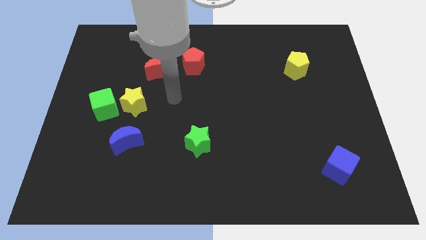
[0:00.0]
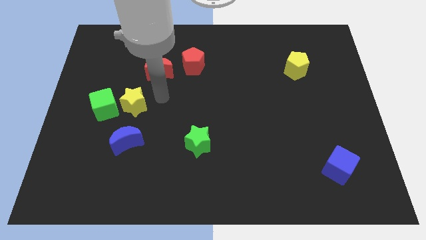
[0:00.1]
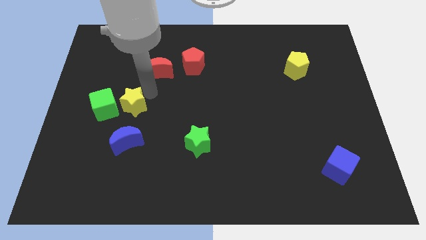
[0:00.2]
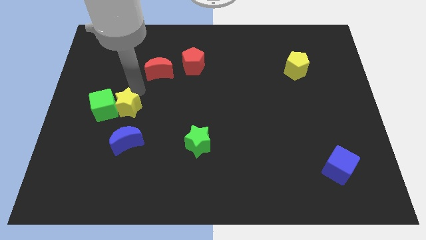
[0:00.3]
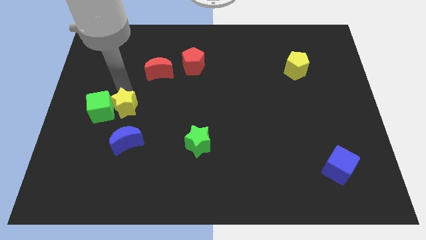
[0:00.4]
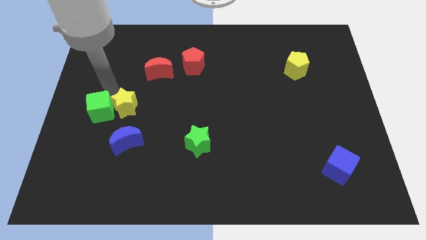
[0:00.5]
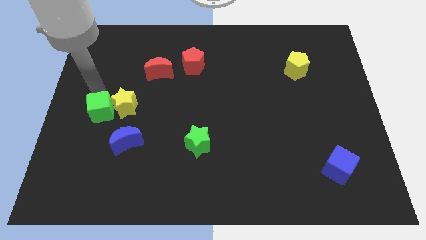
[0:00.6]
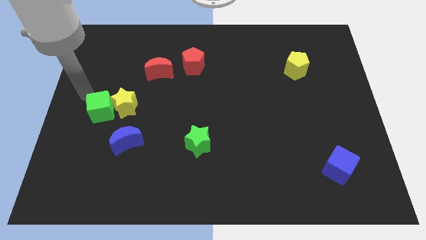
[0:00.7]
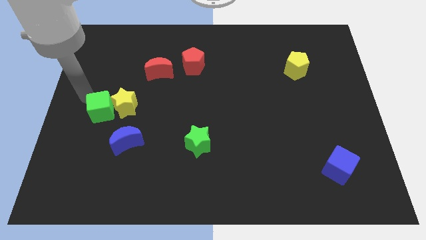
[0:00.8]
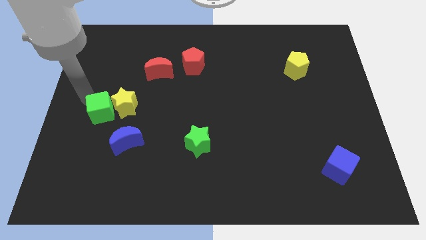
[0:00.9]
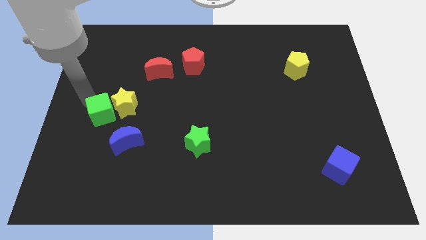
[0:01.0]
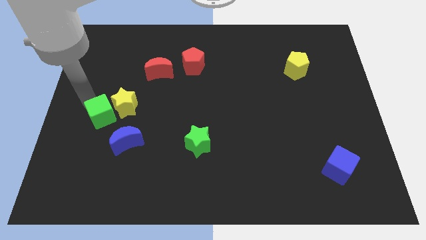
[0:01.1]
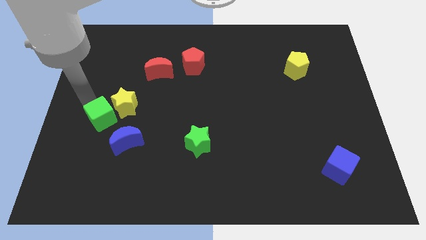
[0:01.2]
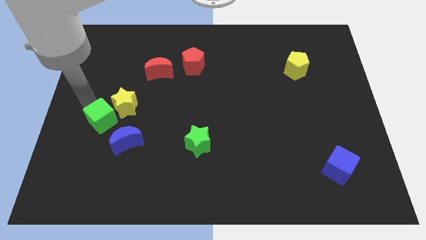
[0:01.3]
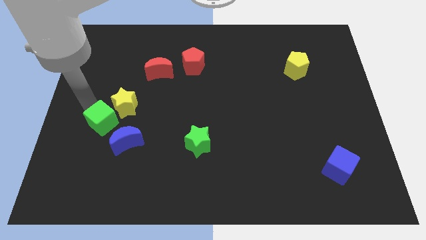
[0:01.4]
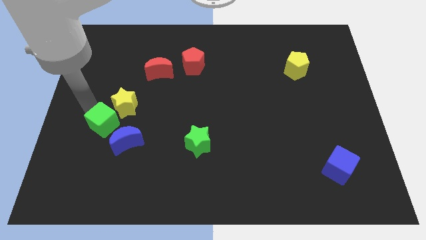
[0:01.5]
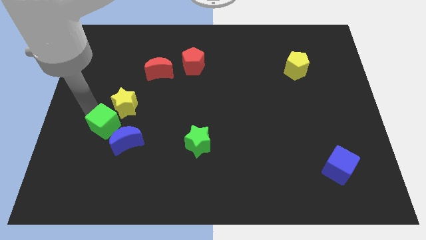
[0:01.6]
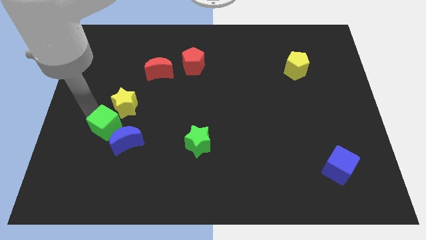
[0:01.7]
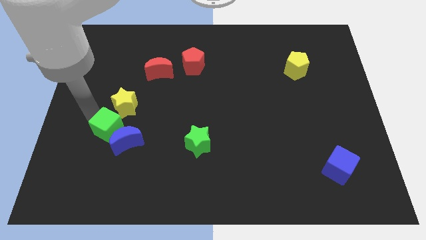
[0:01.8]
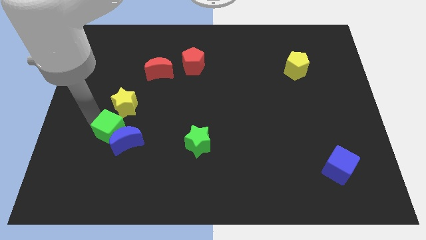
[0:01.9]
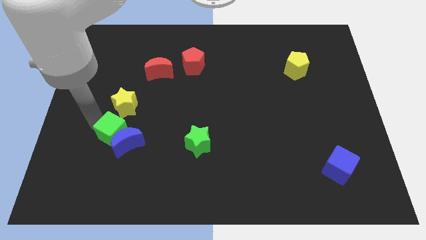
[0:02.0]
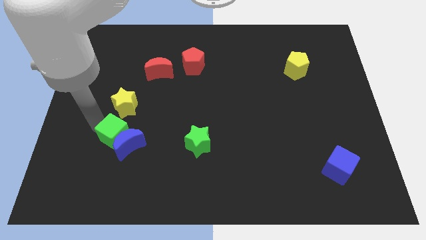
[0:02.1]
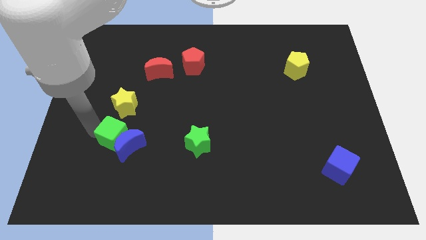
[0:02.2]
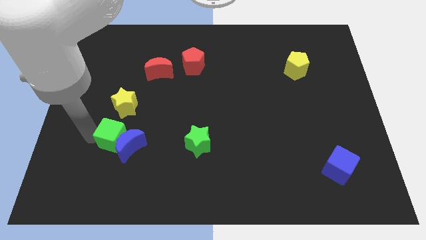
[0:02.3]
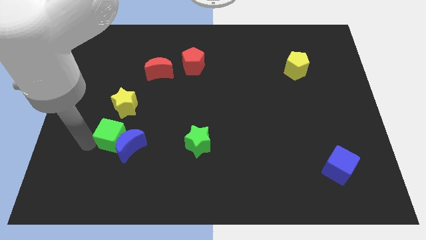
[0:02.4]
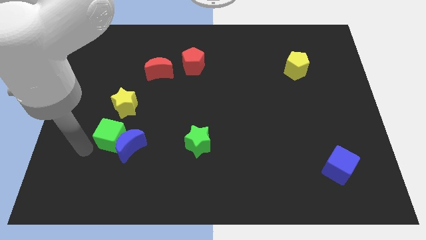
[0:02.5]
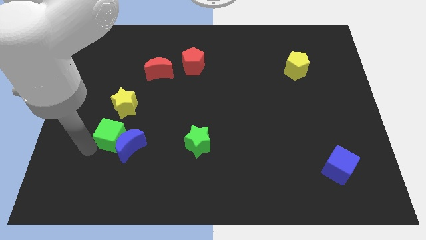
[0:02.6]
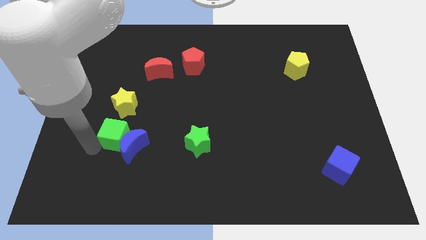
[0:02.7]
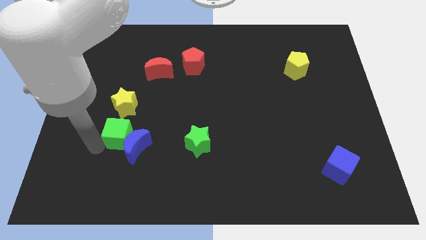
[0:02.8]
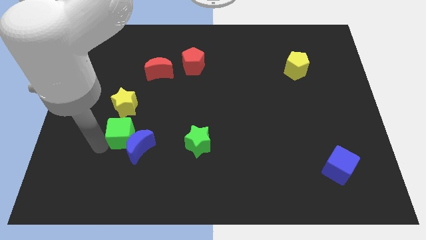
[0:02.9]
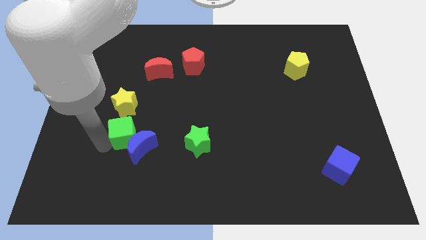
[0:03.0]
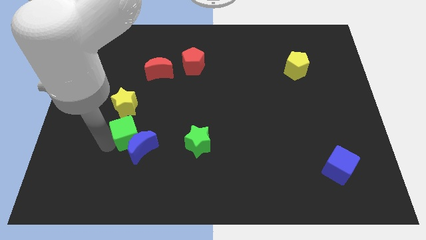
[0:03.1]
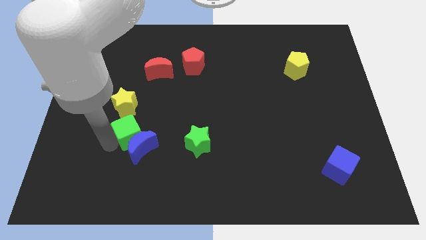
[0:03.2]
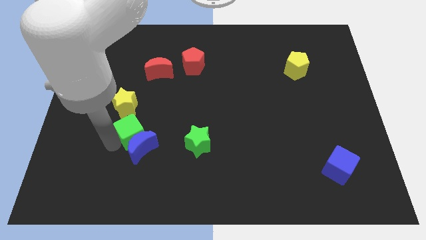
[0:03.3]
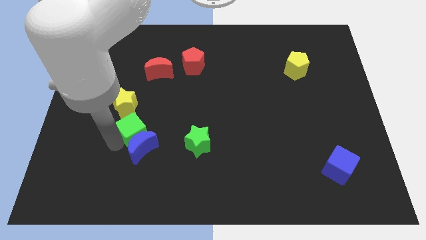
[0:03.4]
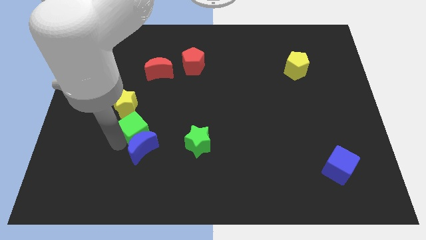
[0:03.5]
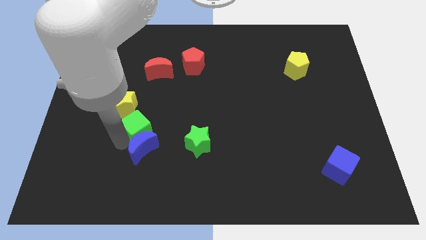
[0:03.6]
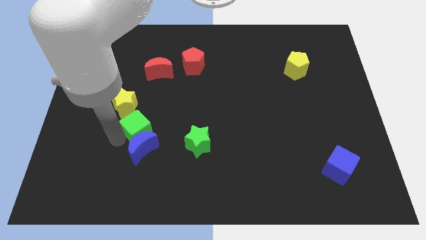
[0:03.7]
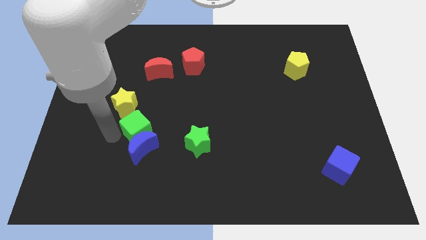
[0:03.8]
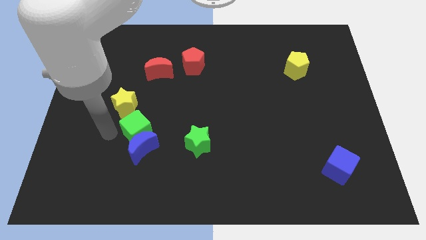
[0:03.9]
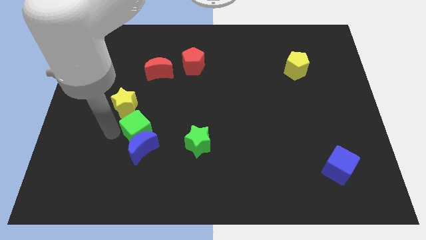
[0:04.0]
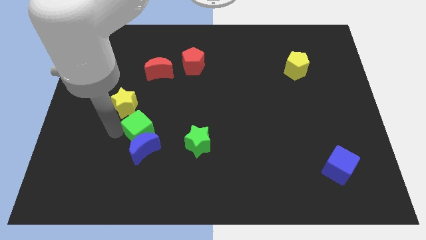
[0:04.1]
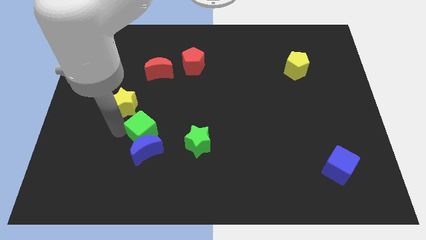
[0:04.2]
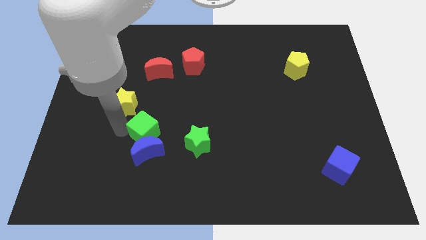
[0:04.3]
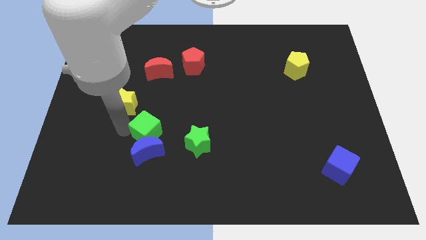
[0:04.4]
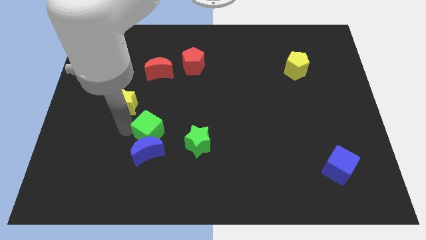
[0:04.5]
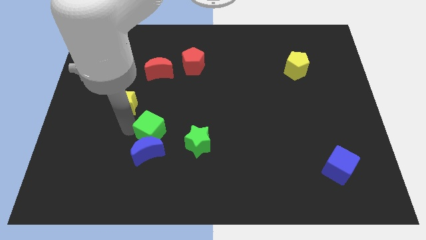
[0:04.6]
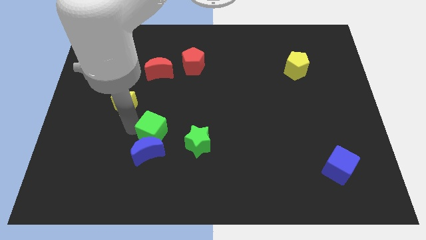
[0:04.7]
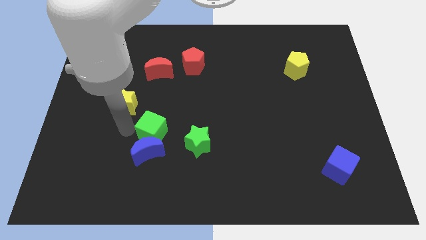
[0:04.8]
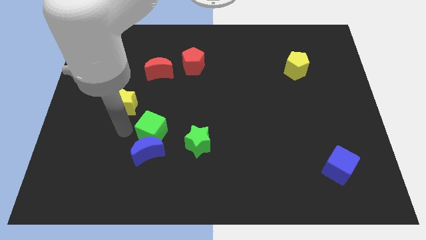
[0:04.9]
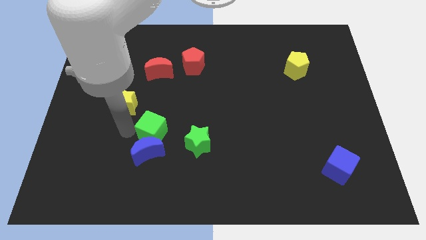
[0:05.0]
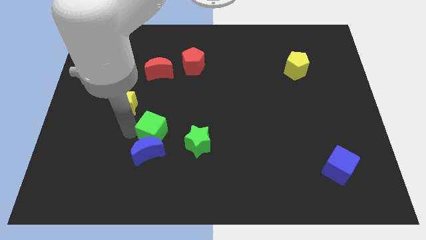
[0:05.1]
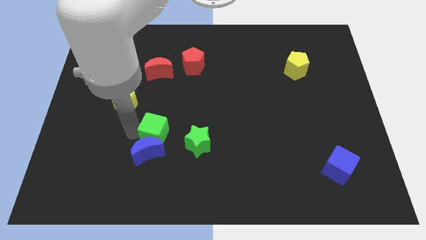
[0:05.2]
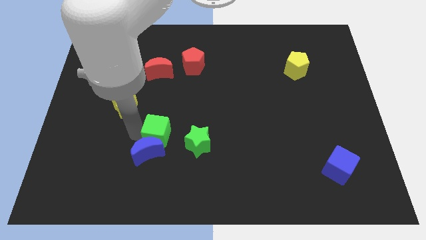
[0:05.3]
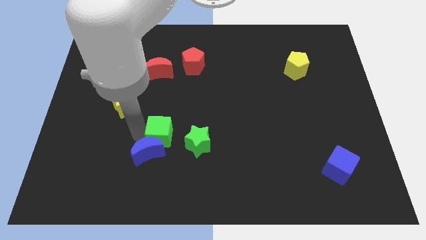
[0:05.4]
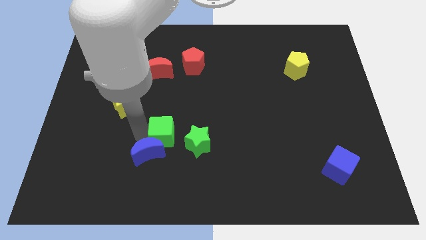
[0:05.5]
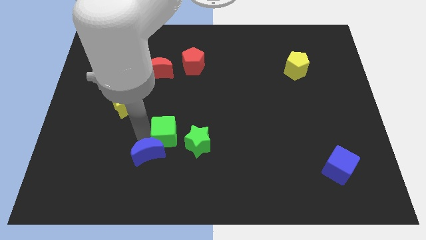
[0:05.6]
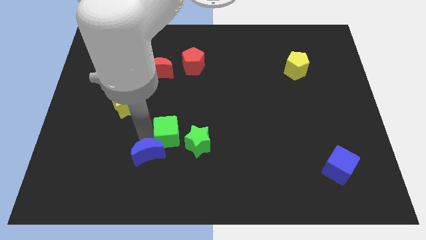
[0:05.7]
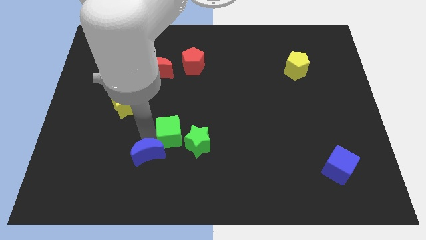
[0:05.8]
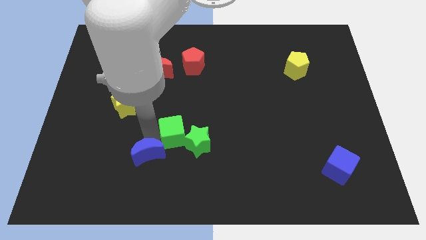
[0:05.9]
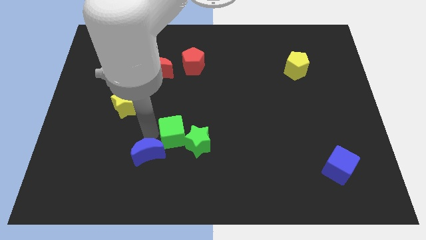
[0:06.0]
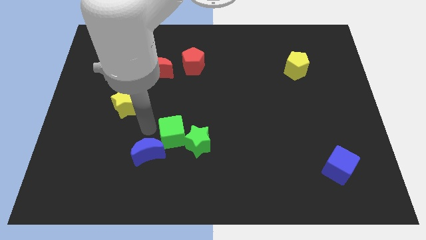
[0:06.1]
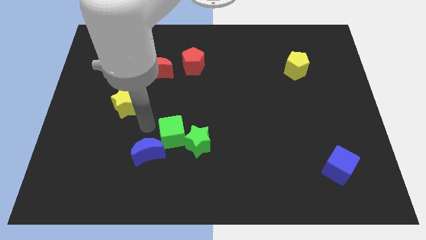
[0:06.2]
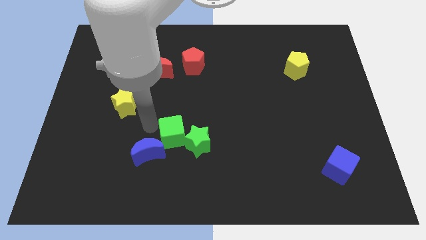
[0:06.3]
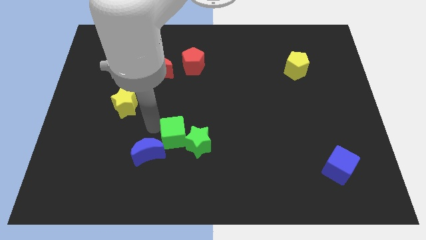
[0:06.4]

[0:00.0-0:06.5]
put the green cube towards the green star
